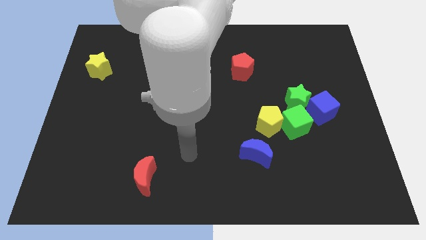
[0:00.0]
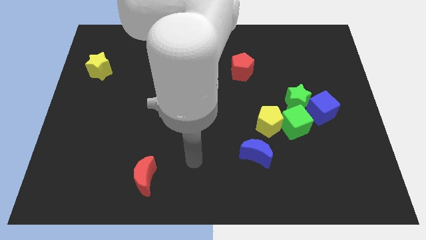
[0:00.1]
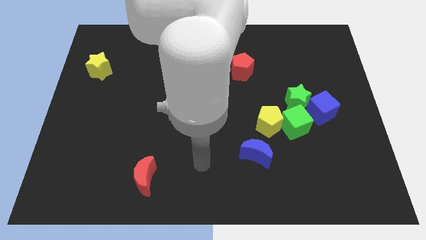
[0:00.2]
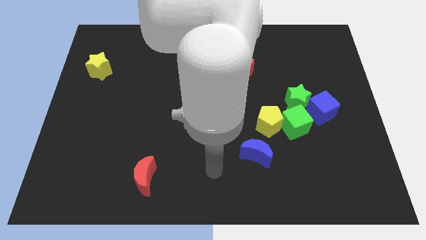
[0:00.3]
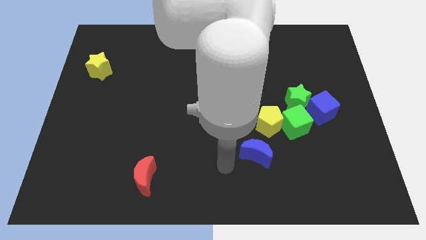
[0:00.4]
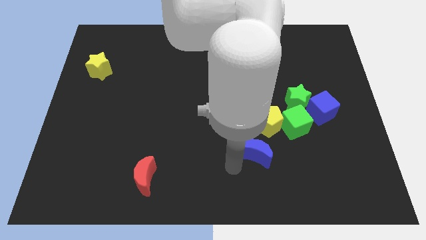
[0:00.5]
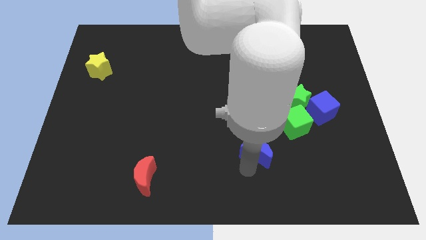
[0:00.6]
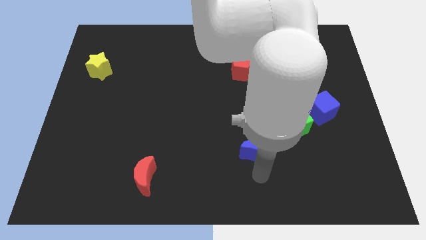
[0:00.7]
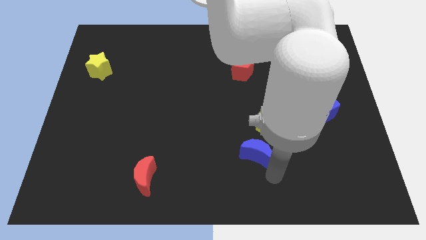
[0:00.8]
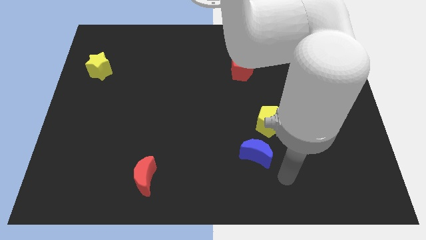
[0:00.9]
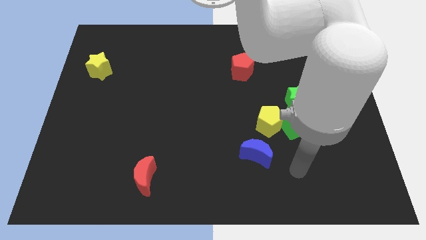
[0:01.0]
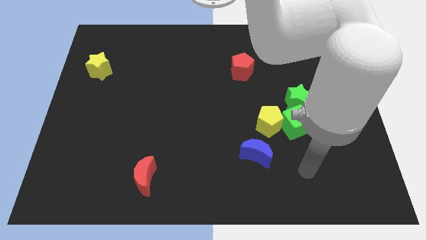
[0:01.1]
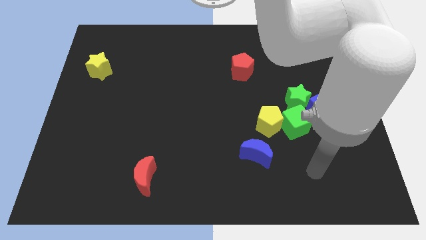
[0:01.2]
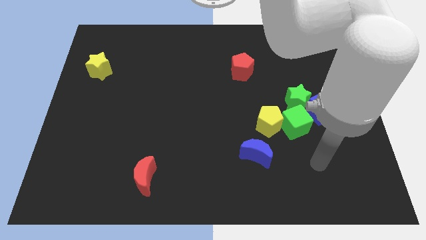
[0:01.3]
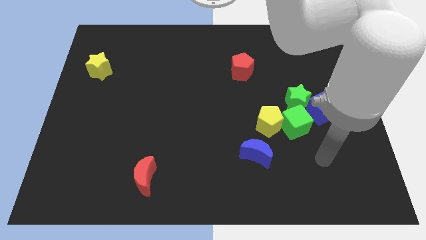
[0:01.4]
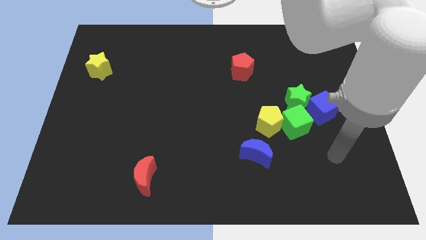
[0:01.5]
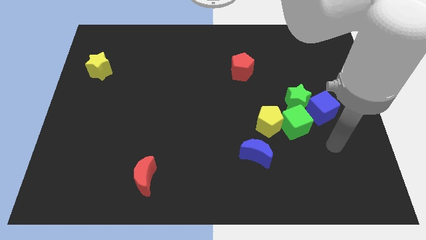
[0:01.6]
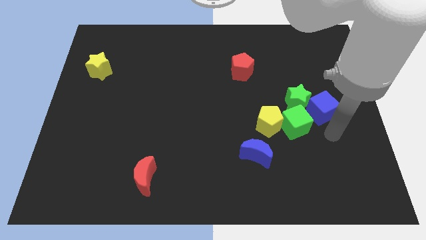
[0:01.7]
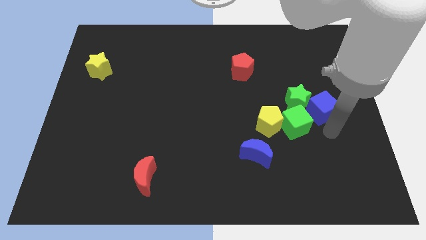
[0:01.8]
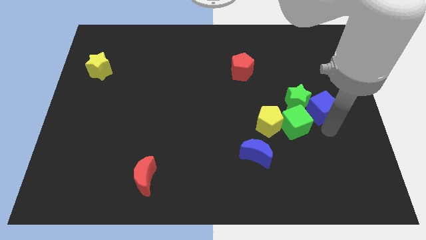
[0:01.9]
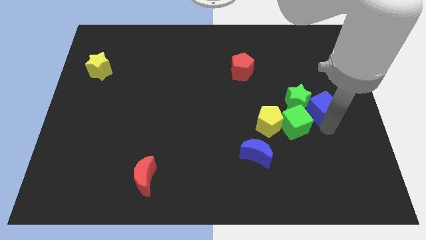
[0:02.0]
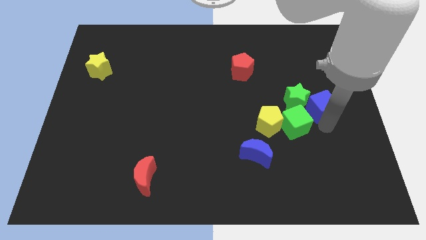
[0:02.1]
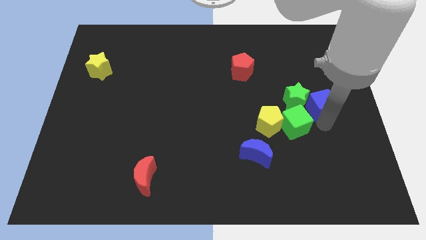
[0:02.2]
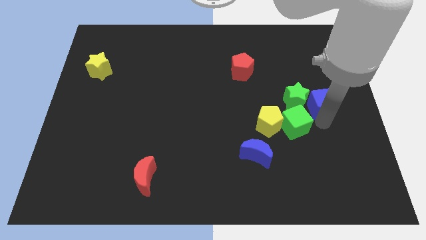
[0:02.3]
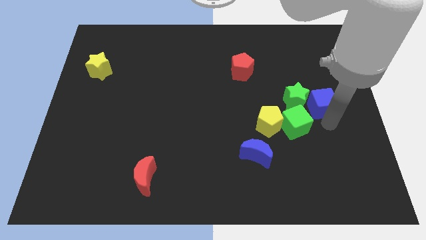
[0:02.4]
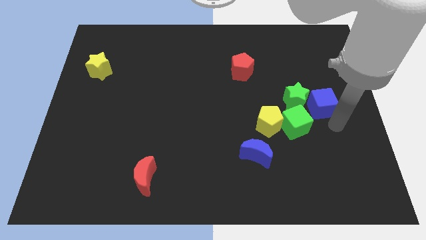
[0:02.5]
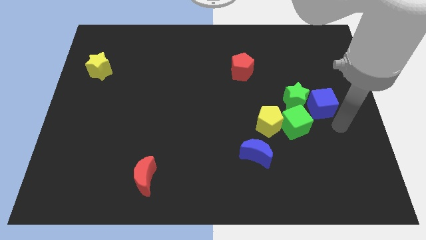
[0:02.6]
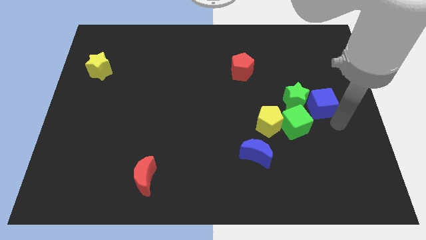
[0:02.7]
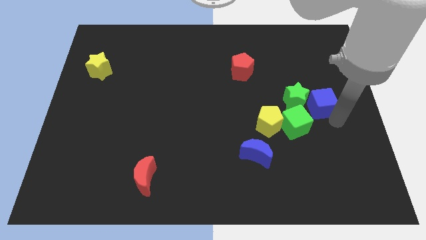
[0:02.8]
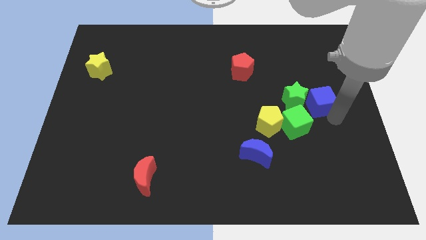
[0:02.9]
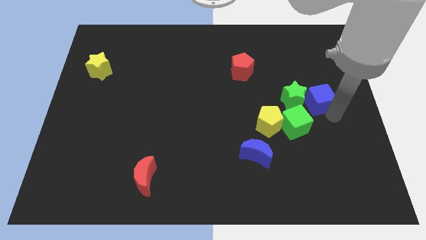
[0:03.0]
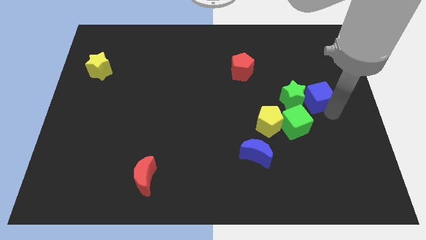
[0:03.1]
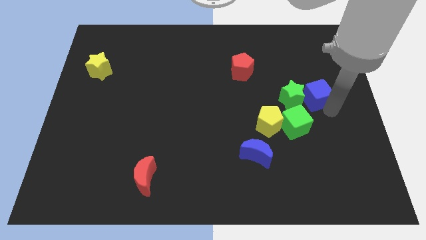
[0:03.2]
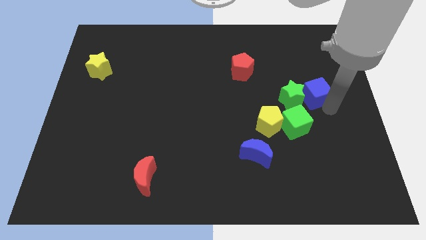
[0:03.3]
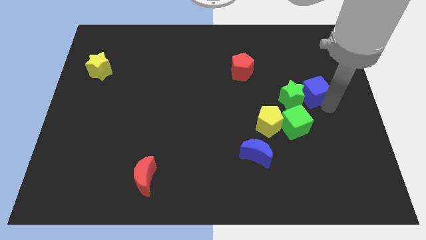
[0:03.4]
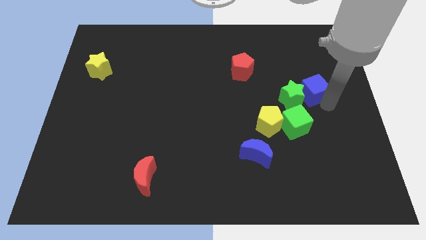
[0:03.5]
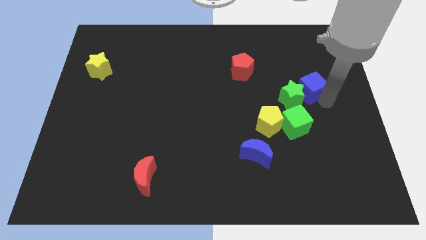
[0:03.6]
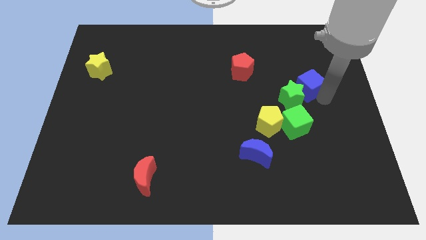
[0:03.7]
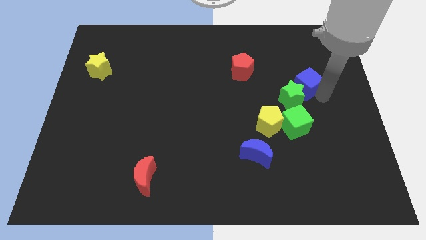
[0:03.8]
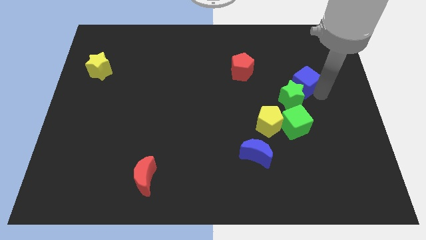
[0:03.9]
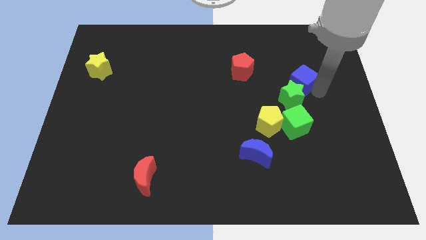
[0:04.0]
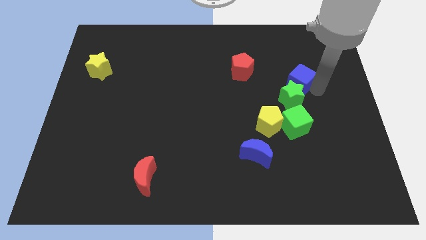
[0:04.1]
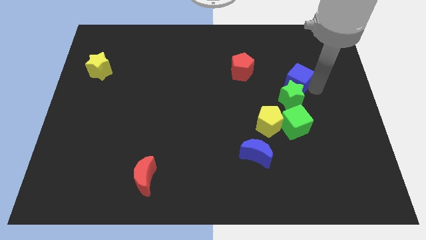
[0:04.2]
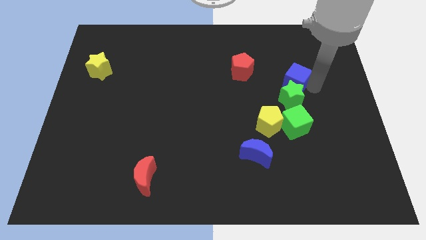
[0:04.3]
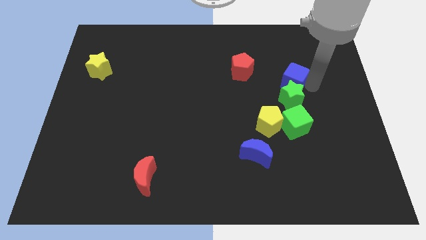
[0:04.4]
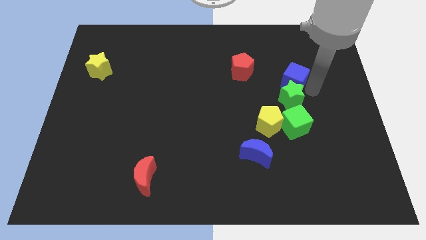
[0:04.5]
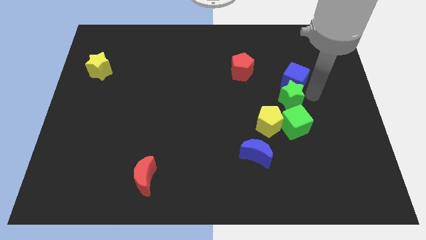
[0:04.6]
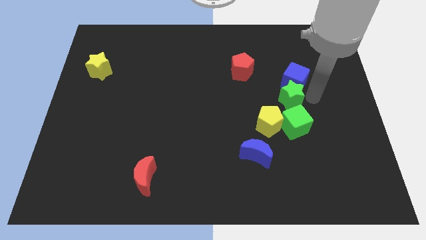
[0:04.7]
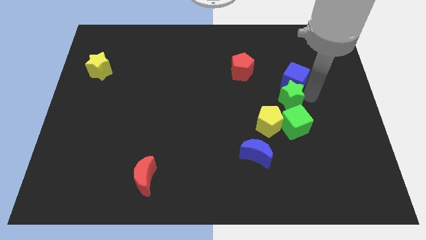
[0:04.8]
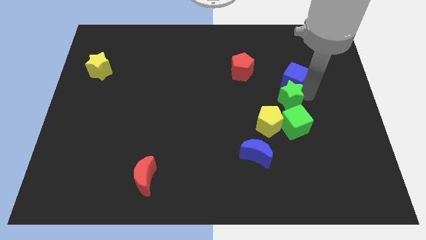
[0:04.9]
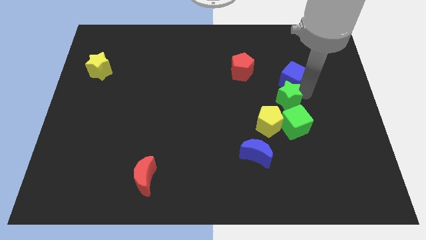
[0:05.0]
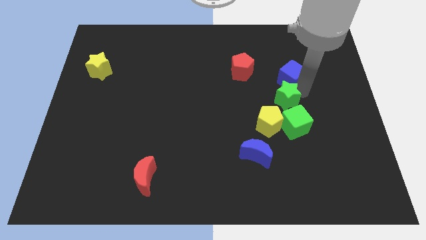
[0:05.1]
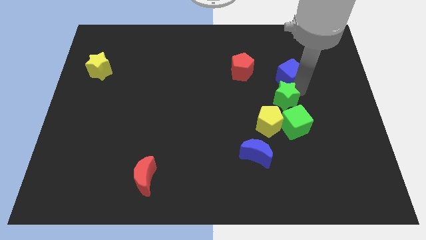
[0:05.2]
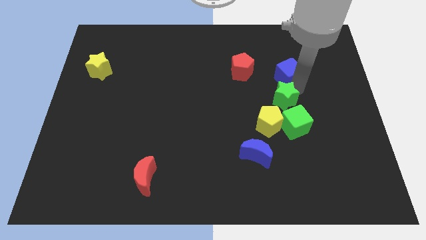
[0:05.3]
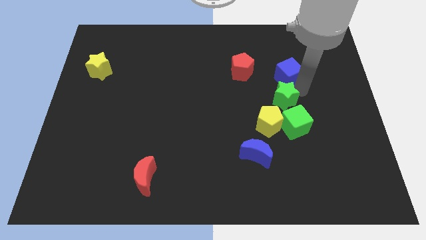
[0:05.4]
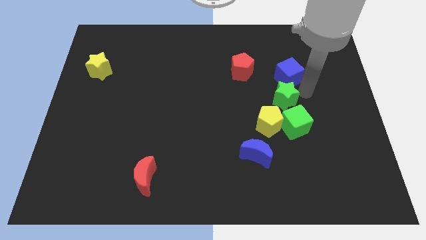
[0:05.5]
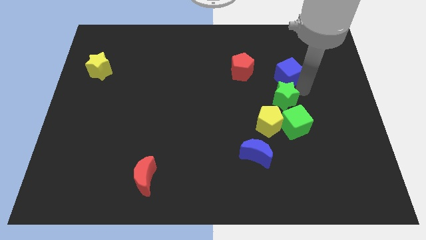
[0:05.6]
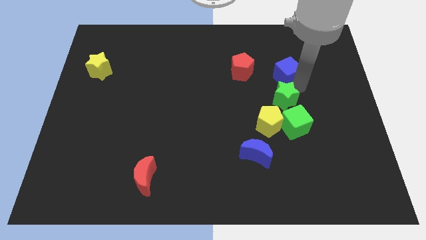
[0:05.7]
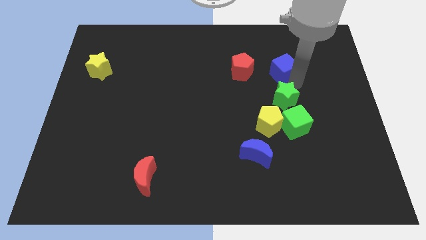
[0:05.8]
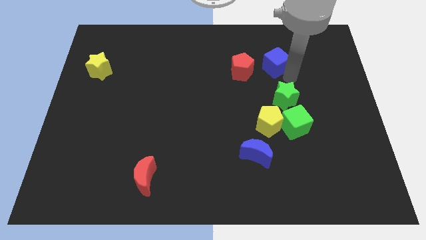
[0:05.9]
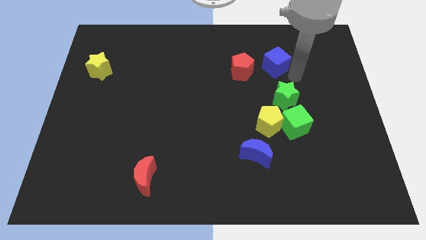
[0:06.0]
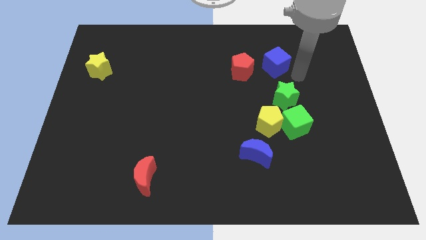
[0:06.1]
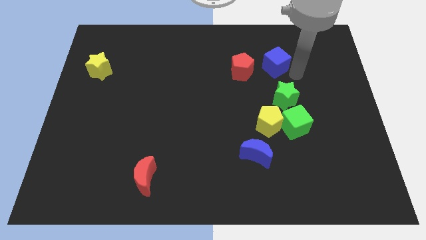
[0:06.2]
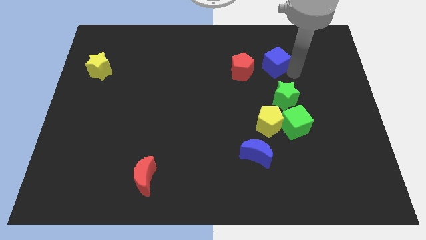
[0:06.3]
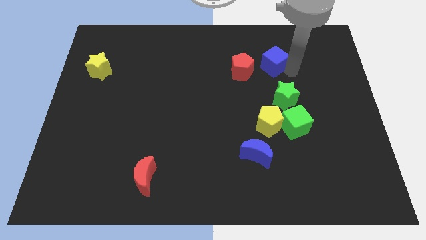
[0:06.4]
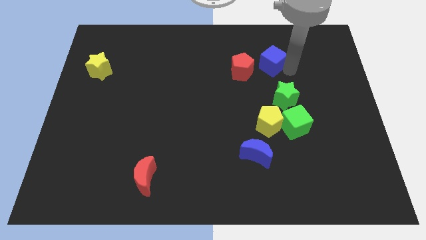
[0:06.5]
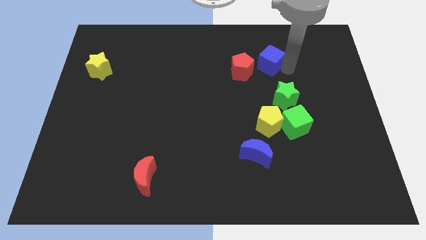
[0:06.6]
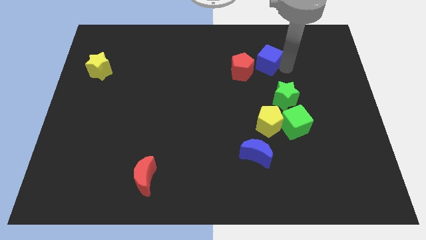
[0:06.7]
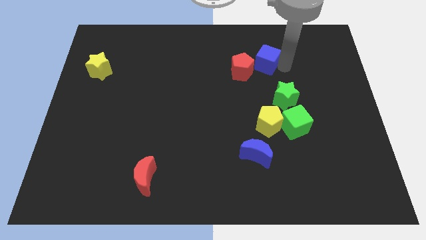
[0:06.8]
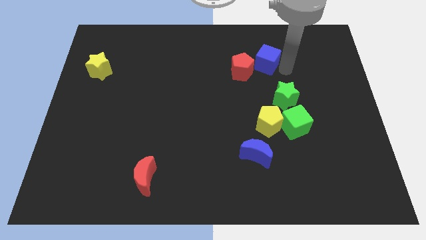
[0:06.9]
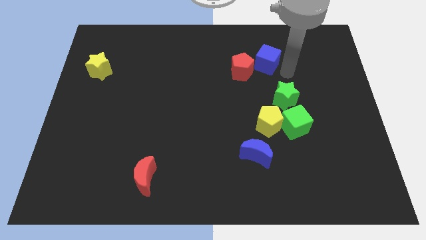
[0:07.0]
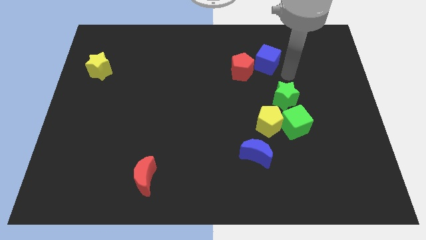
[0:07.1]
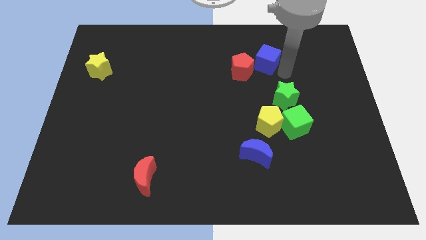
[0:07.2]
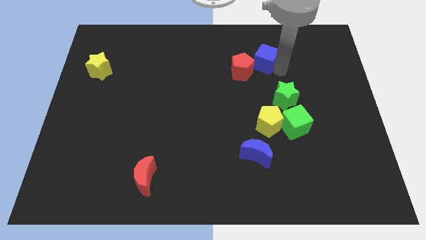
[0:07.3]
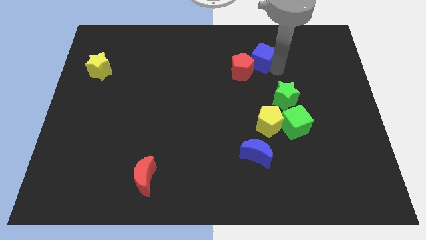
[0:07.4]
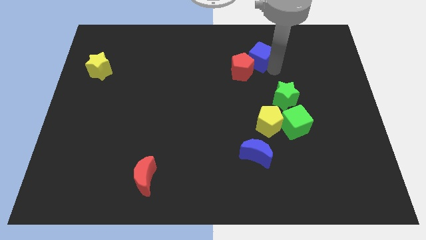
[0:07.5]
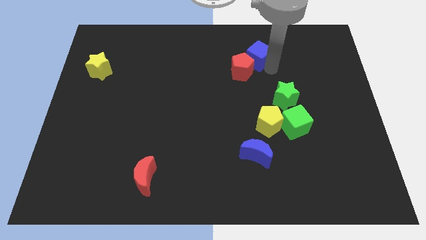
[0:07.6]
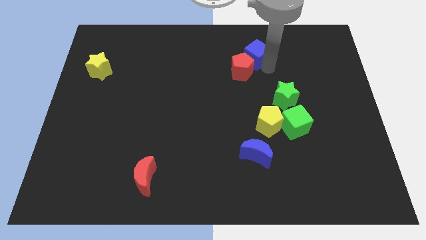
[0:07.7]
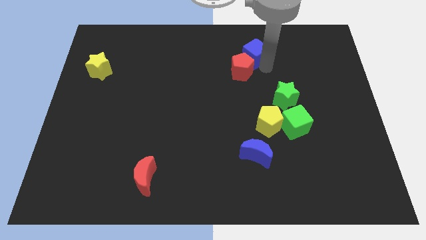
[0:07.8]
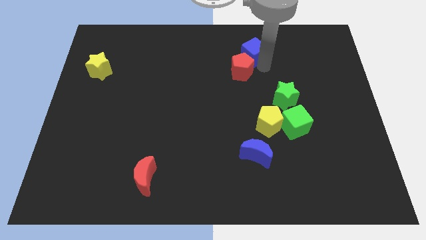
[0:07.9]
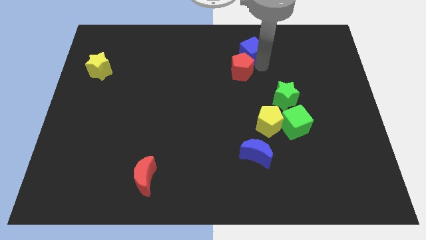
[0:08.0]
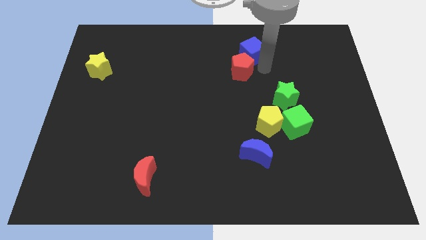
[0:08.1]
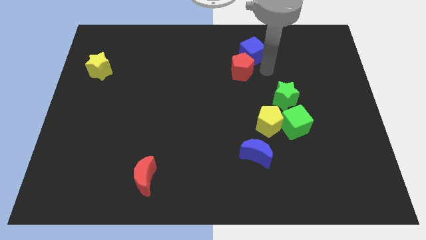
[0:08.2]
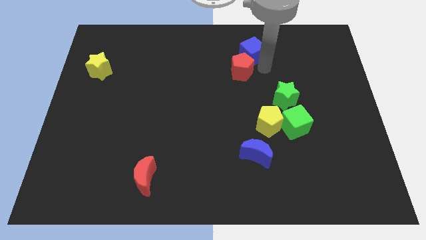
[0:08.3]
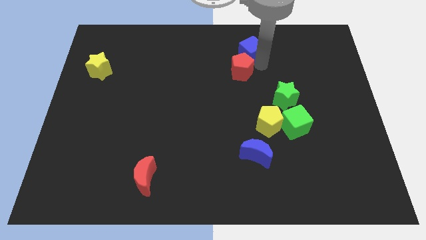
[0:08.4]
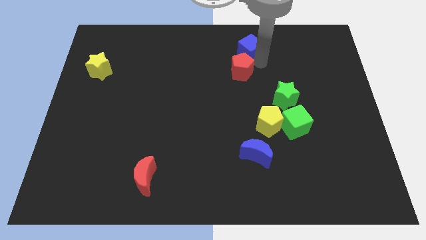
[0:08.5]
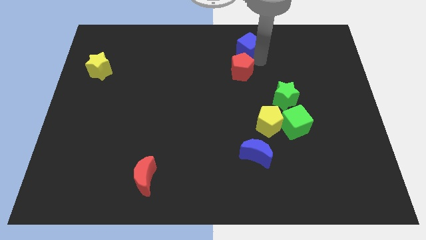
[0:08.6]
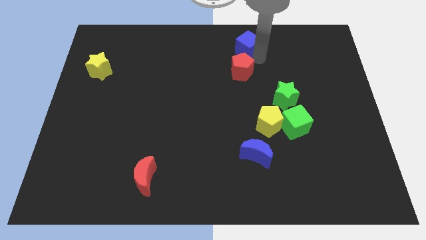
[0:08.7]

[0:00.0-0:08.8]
slide the blue cube to the top side
